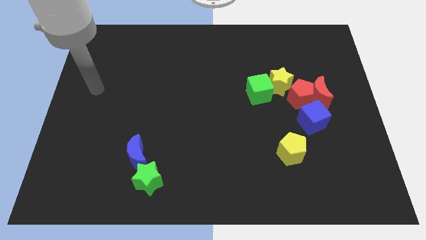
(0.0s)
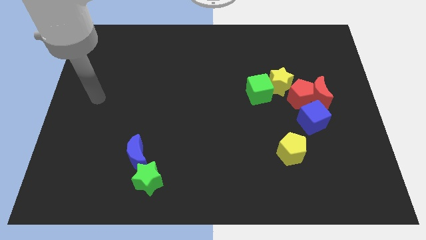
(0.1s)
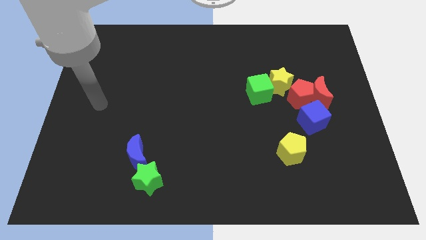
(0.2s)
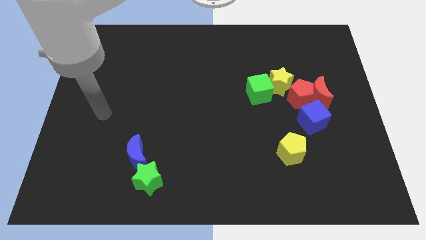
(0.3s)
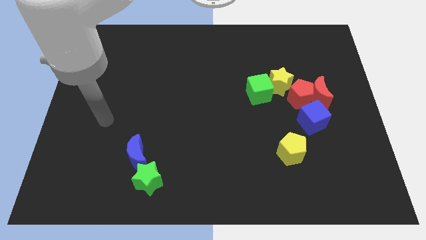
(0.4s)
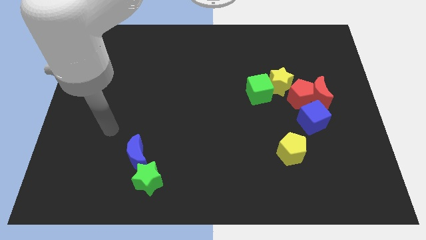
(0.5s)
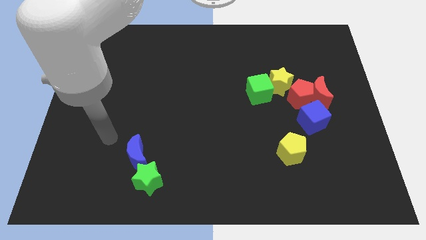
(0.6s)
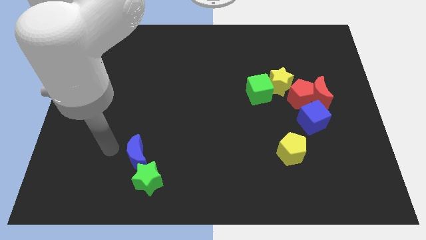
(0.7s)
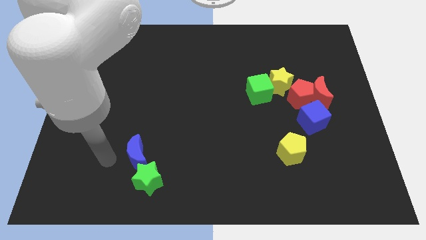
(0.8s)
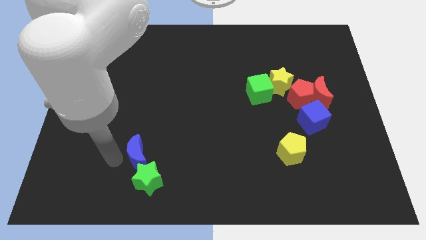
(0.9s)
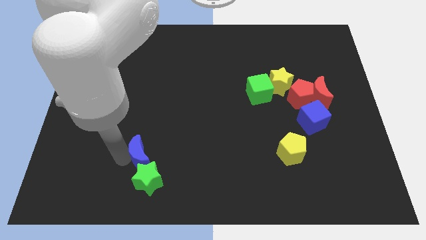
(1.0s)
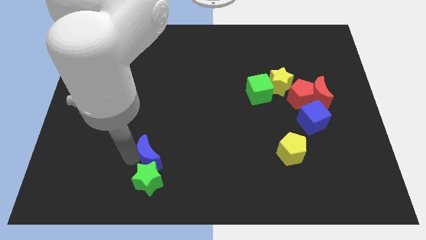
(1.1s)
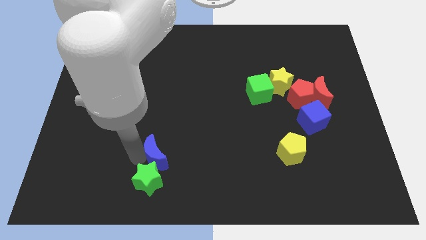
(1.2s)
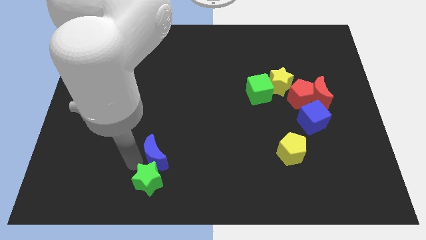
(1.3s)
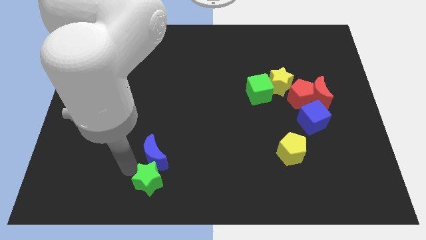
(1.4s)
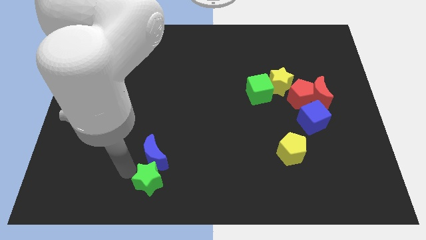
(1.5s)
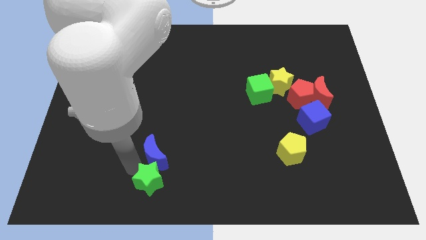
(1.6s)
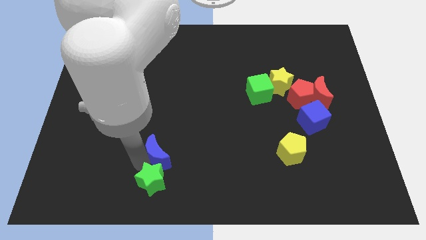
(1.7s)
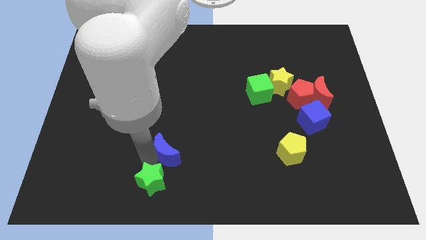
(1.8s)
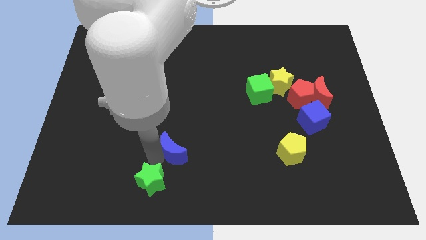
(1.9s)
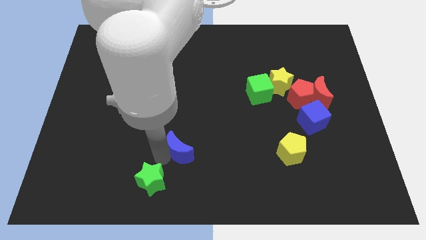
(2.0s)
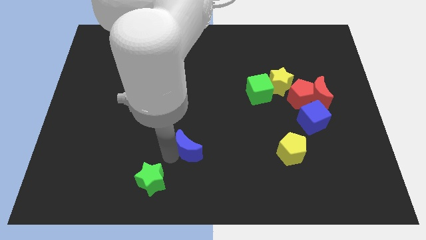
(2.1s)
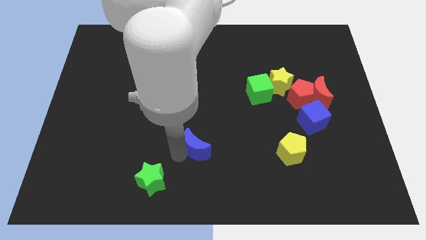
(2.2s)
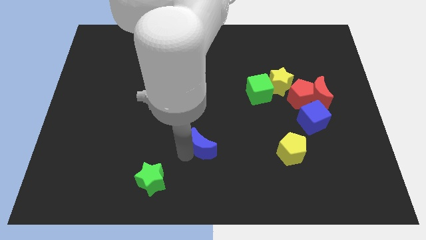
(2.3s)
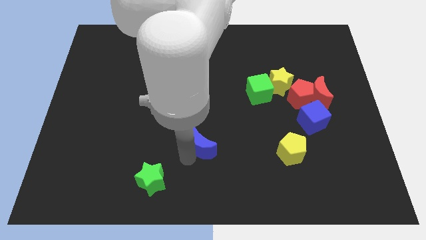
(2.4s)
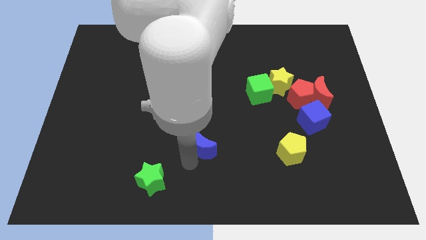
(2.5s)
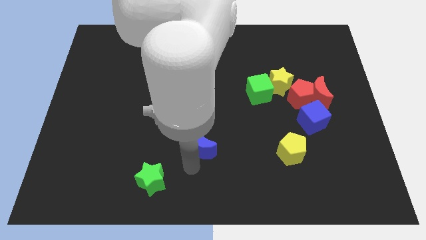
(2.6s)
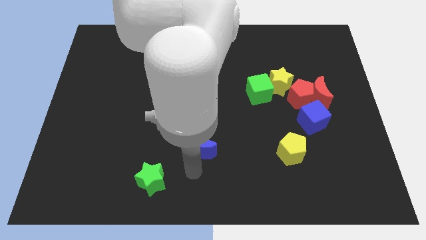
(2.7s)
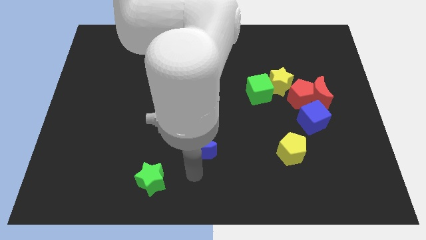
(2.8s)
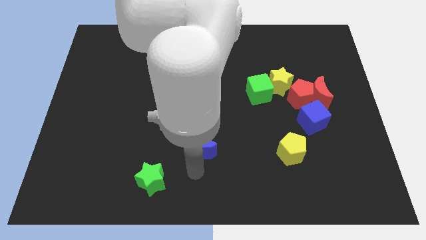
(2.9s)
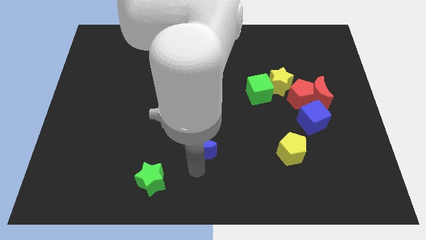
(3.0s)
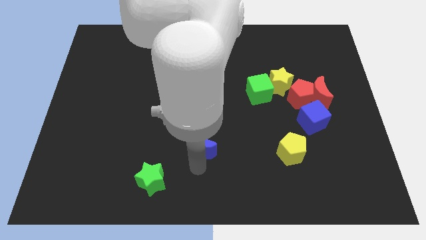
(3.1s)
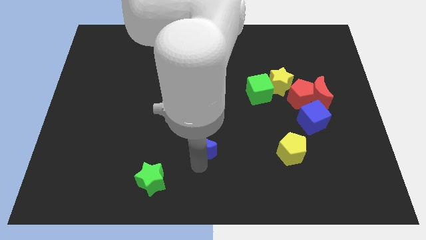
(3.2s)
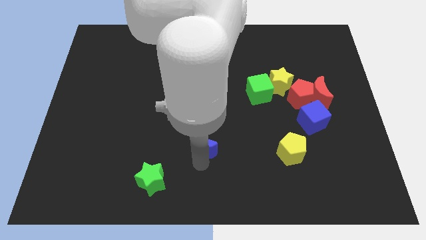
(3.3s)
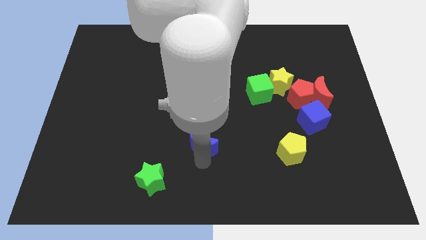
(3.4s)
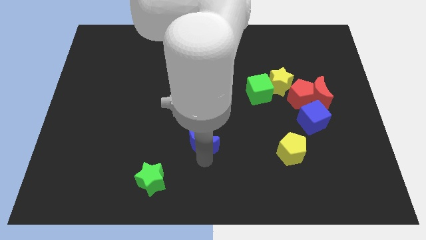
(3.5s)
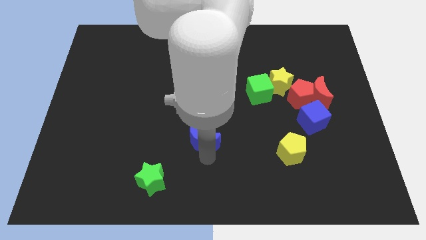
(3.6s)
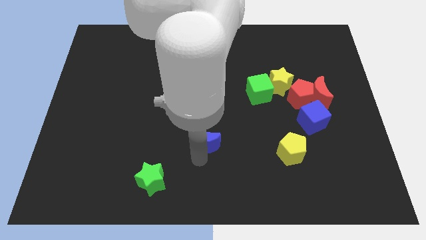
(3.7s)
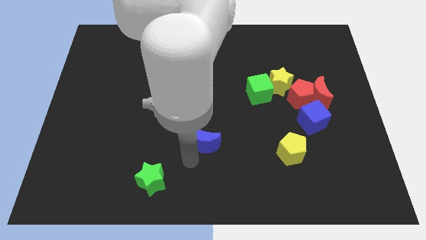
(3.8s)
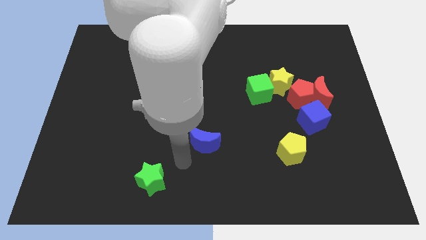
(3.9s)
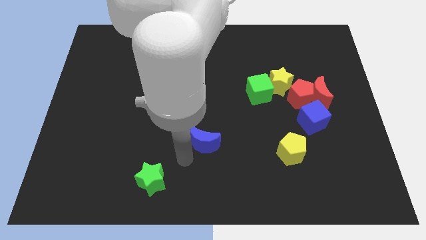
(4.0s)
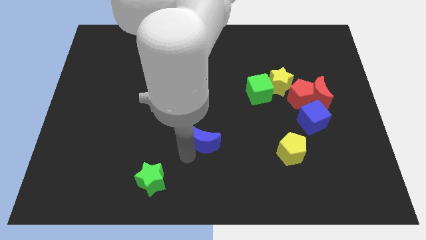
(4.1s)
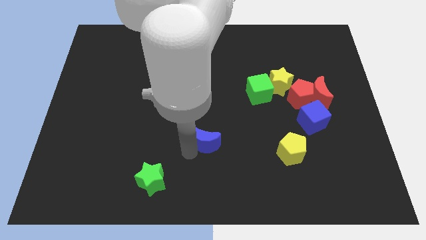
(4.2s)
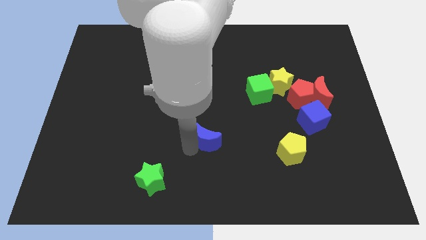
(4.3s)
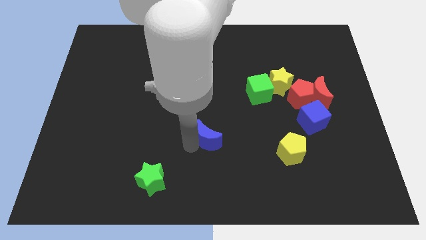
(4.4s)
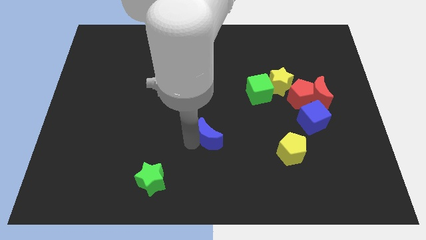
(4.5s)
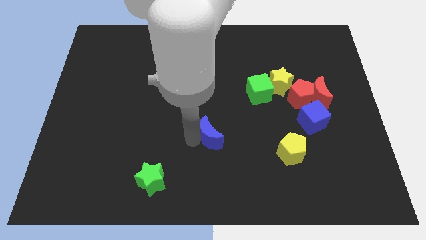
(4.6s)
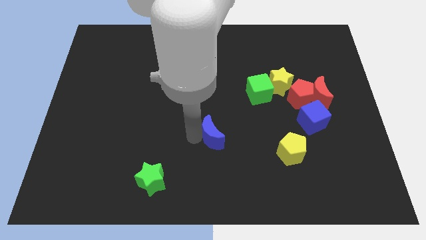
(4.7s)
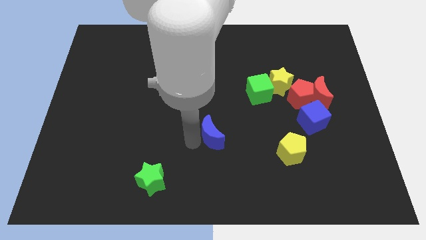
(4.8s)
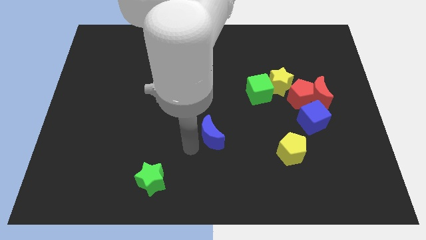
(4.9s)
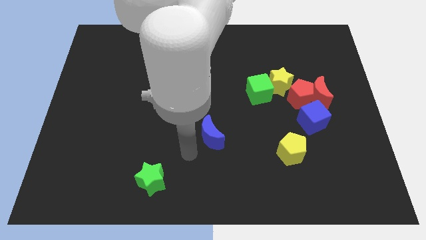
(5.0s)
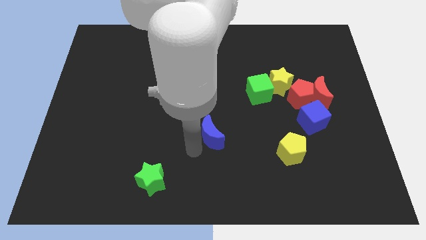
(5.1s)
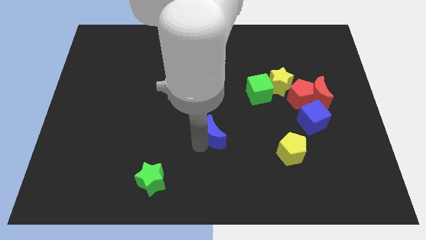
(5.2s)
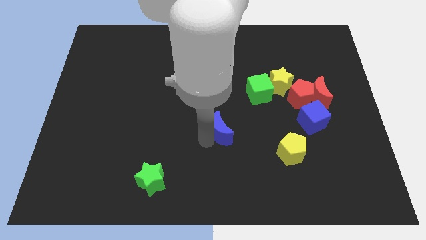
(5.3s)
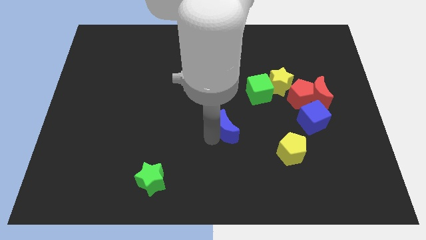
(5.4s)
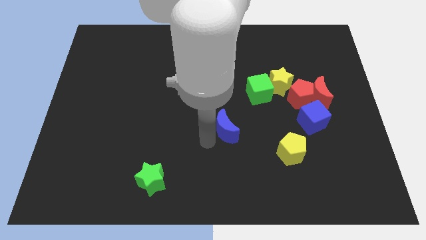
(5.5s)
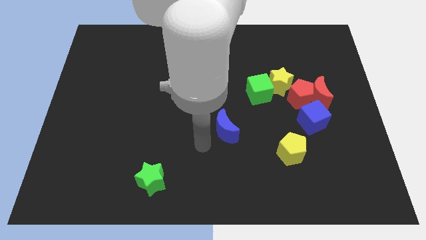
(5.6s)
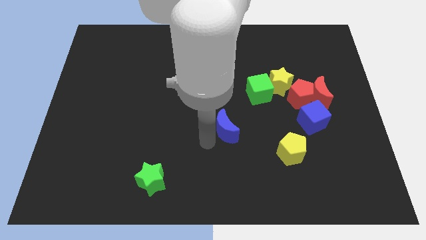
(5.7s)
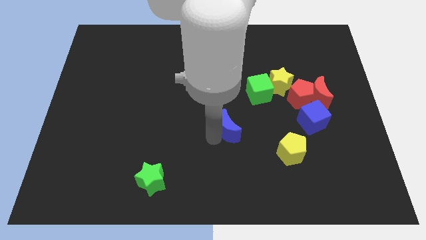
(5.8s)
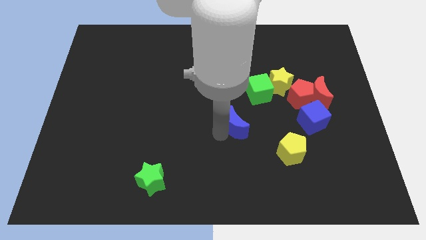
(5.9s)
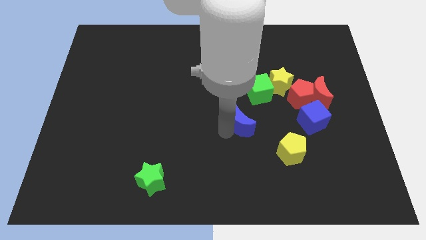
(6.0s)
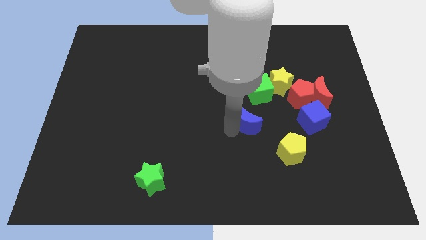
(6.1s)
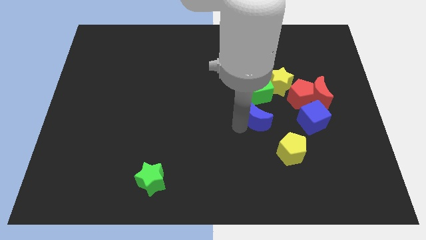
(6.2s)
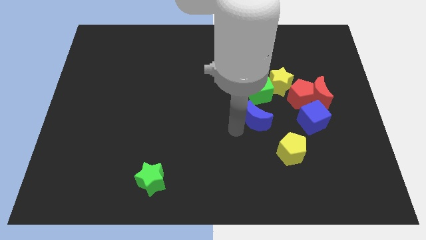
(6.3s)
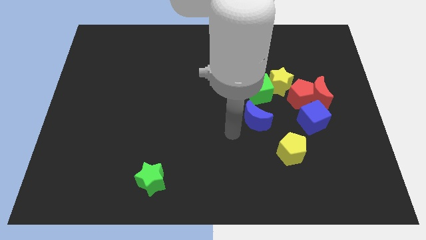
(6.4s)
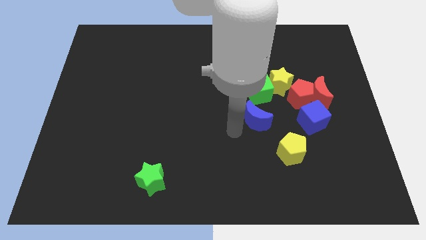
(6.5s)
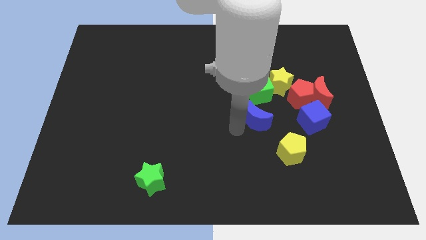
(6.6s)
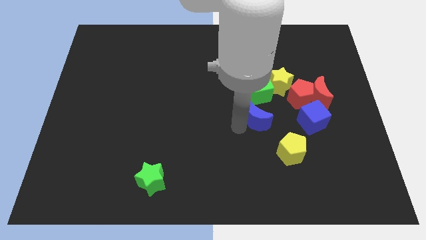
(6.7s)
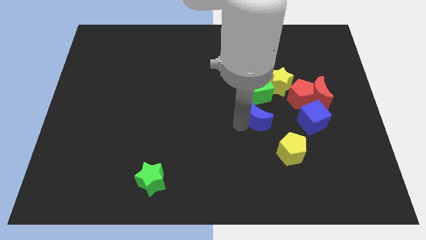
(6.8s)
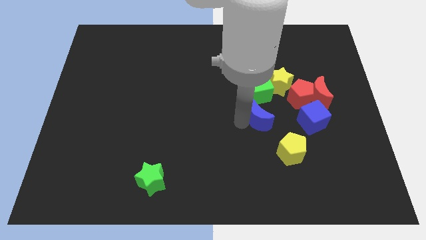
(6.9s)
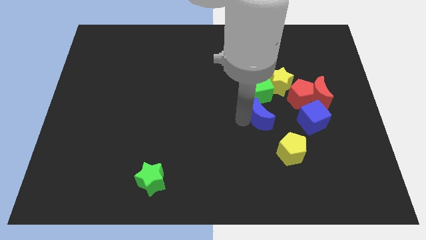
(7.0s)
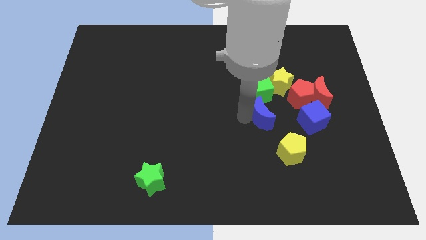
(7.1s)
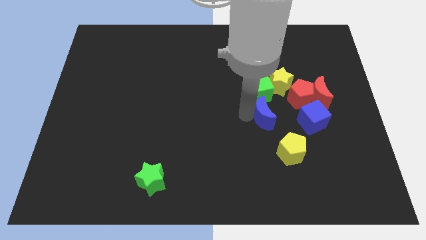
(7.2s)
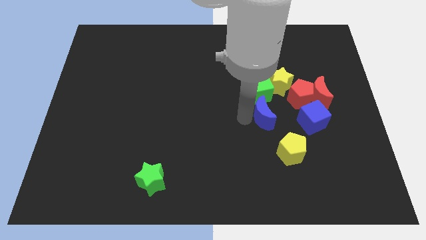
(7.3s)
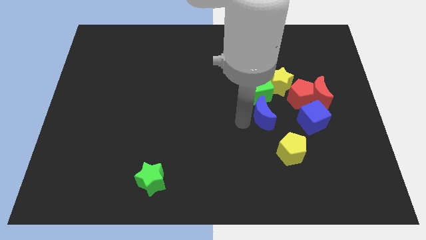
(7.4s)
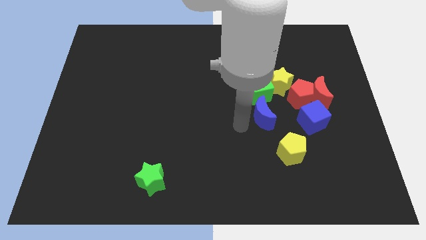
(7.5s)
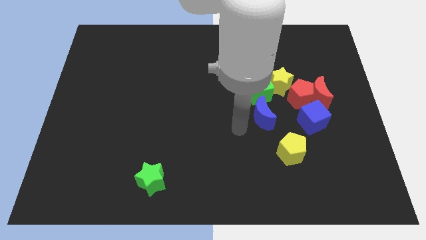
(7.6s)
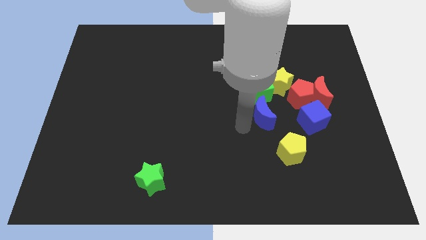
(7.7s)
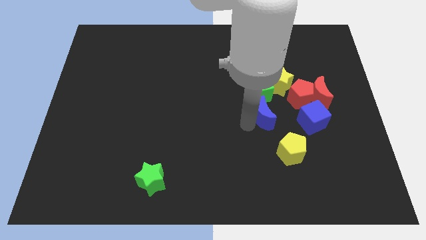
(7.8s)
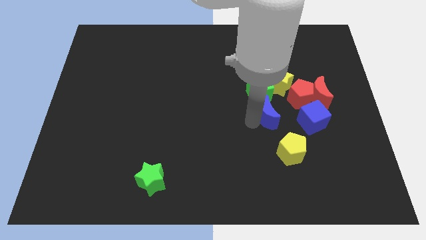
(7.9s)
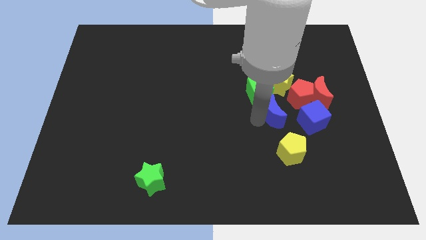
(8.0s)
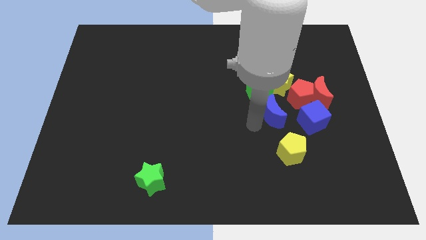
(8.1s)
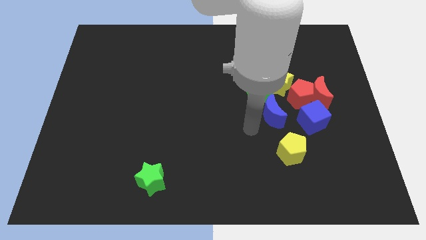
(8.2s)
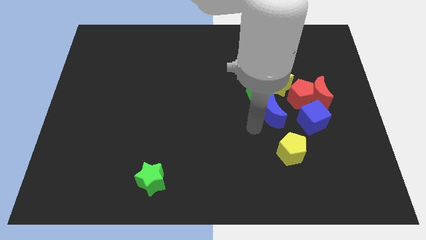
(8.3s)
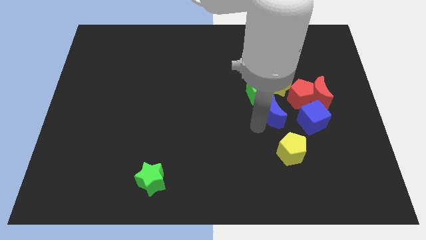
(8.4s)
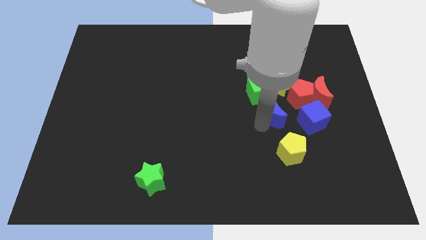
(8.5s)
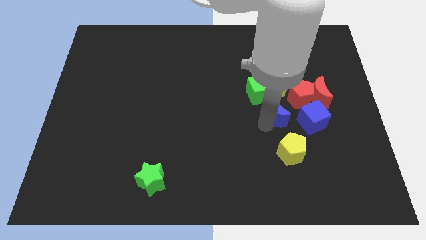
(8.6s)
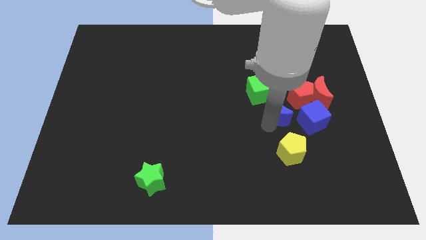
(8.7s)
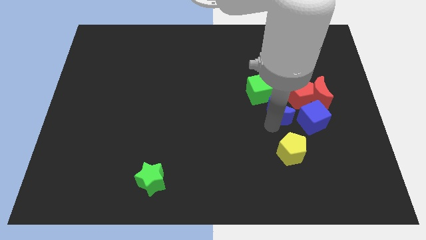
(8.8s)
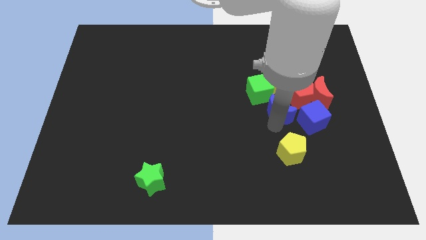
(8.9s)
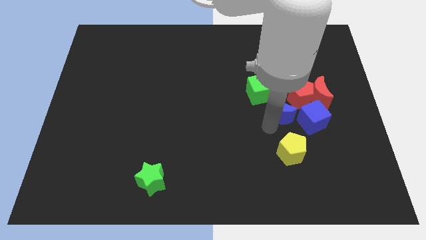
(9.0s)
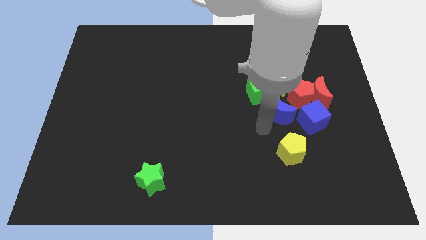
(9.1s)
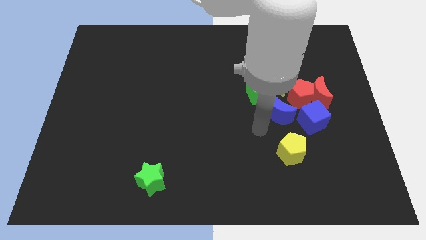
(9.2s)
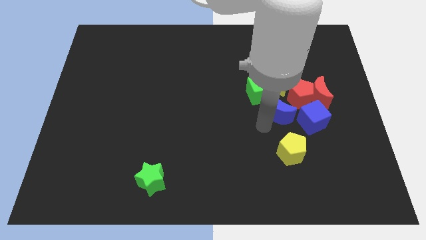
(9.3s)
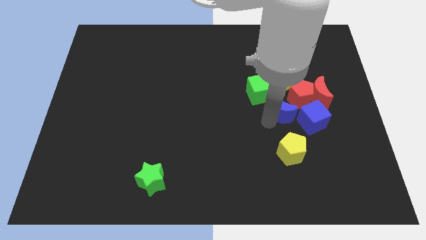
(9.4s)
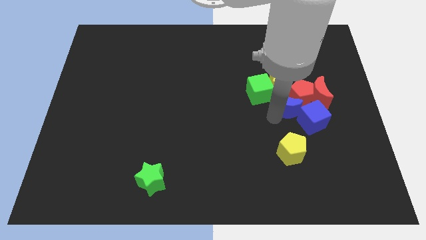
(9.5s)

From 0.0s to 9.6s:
put the blue moon to the red pentagon
